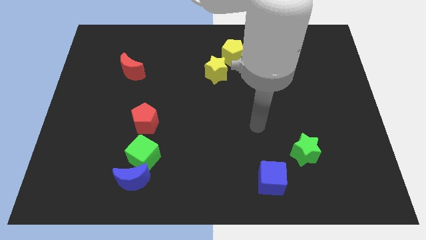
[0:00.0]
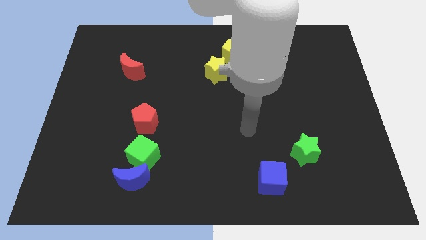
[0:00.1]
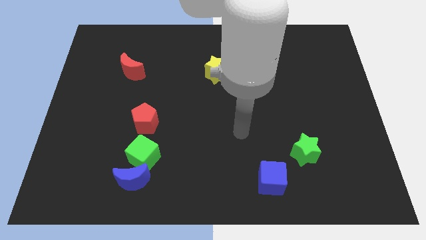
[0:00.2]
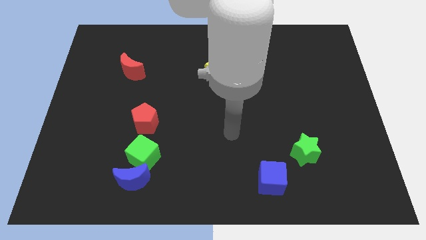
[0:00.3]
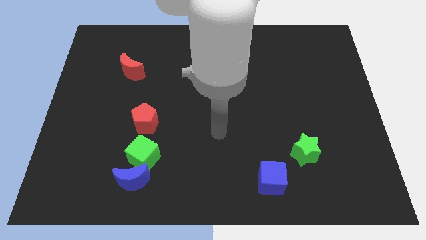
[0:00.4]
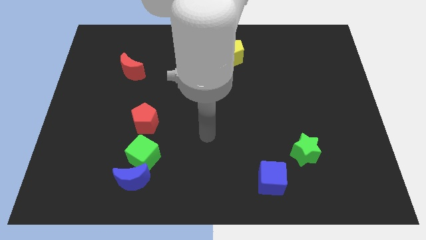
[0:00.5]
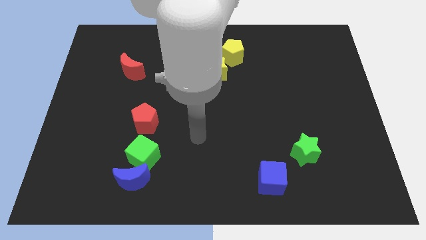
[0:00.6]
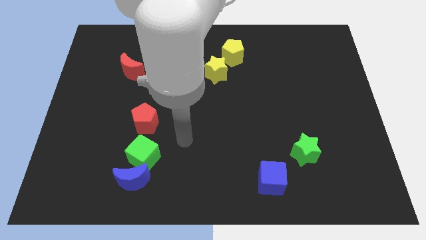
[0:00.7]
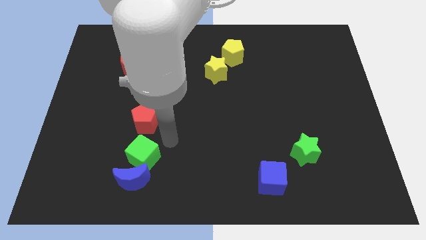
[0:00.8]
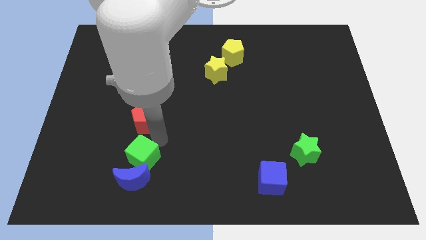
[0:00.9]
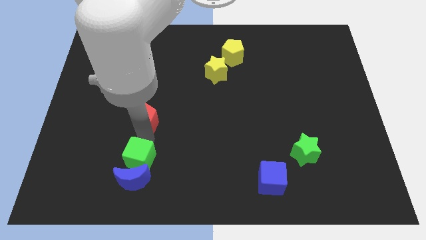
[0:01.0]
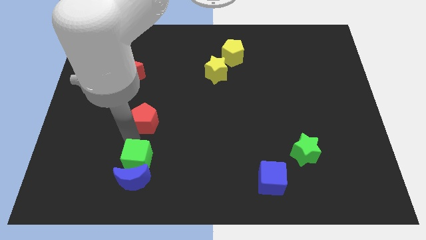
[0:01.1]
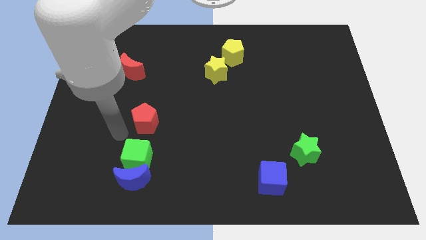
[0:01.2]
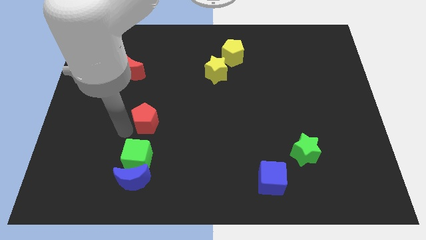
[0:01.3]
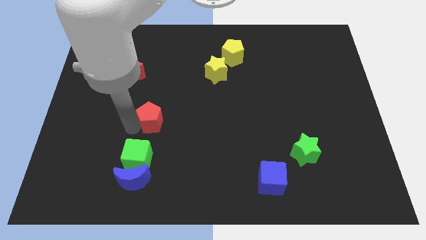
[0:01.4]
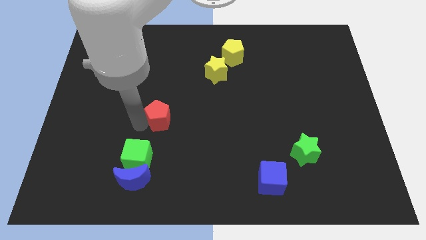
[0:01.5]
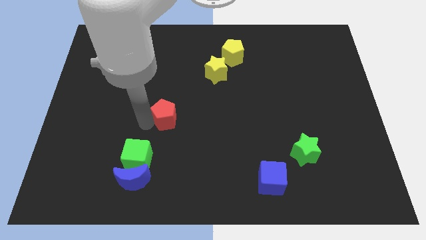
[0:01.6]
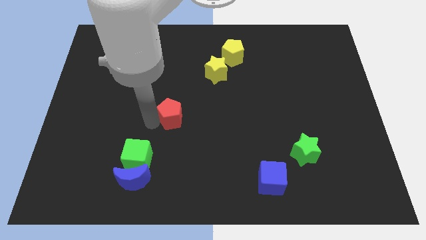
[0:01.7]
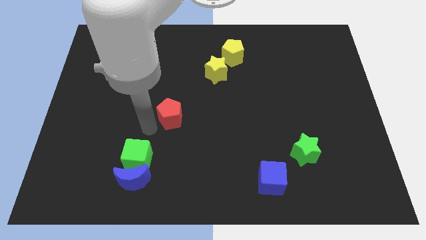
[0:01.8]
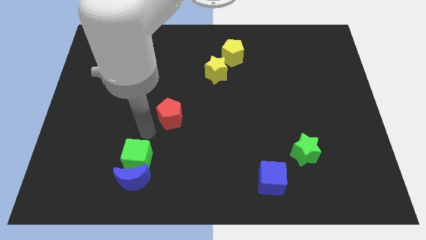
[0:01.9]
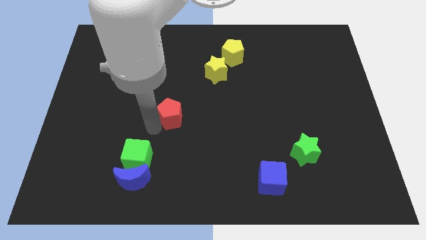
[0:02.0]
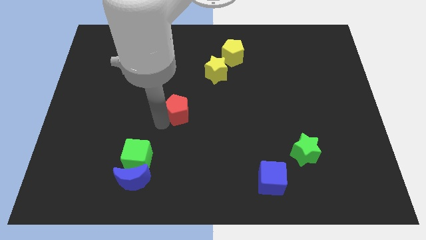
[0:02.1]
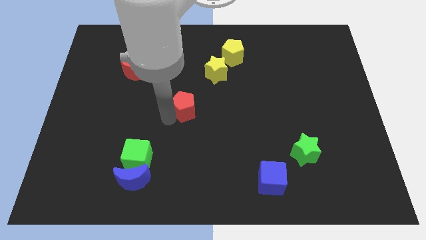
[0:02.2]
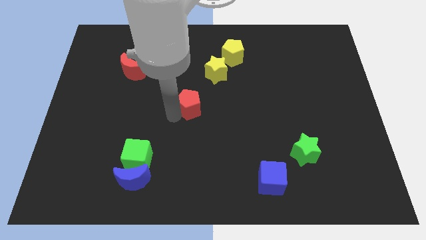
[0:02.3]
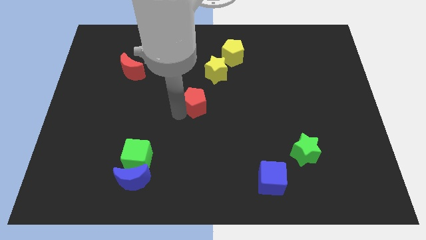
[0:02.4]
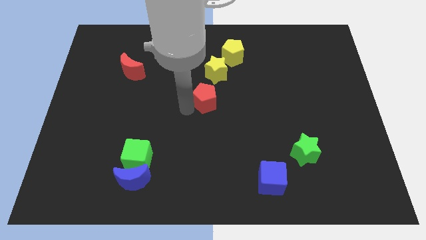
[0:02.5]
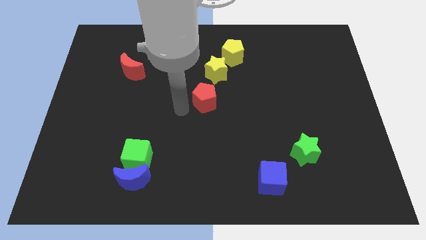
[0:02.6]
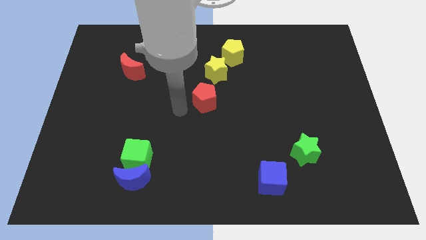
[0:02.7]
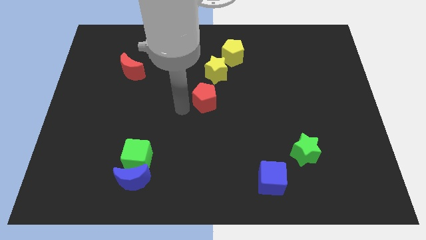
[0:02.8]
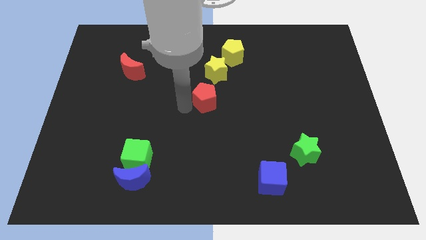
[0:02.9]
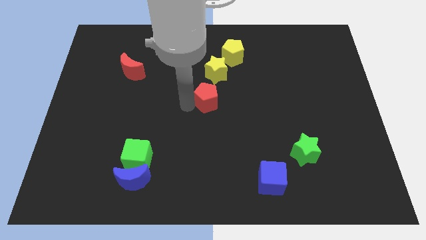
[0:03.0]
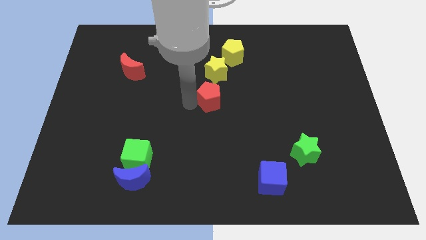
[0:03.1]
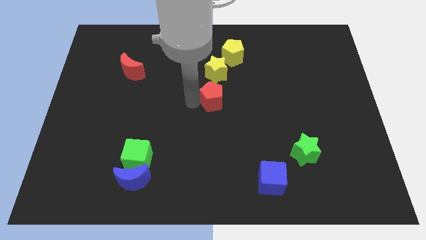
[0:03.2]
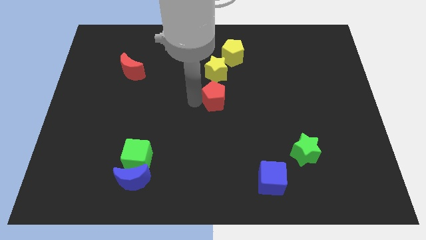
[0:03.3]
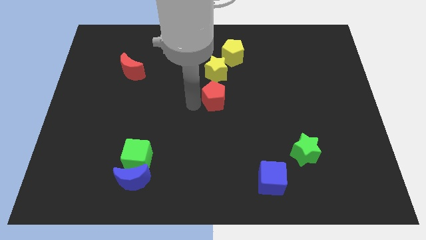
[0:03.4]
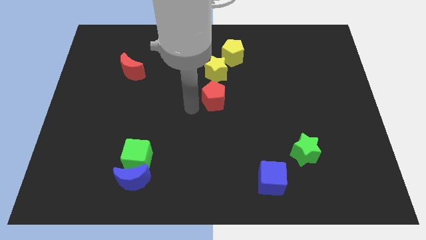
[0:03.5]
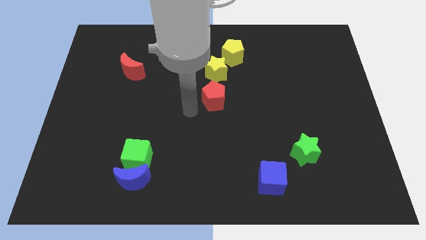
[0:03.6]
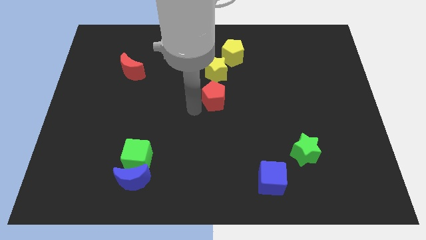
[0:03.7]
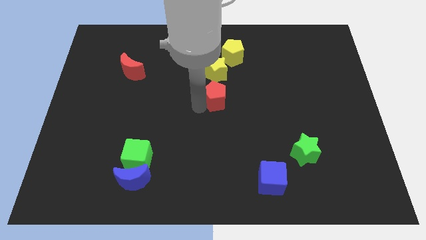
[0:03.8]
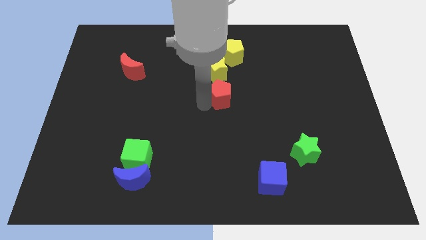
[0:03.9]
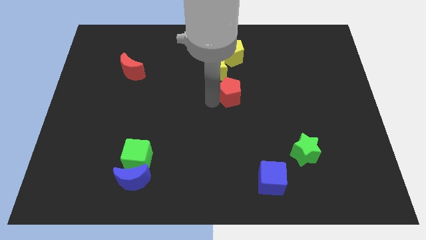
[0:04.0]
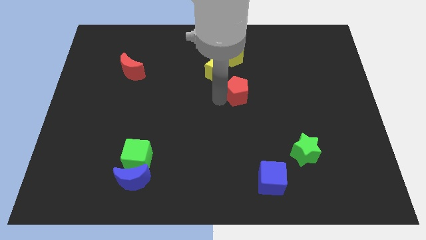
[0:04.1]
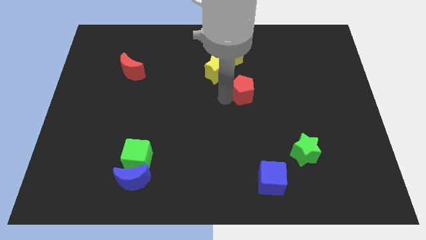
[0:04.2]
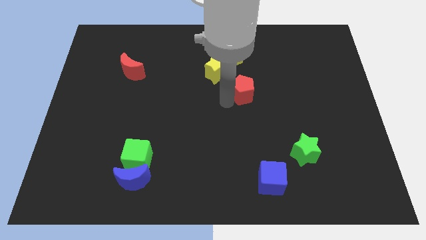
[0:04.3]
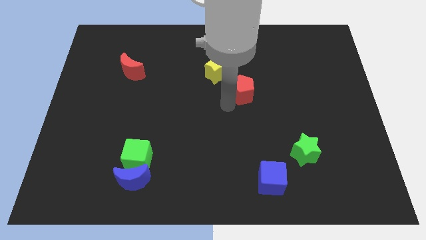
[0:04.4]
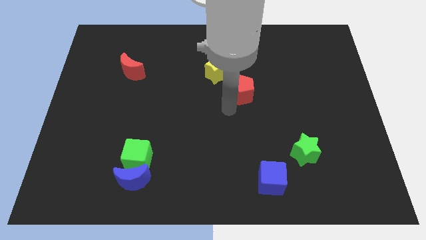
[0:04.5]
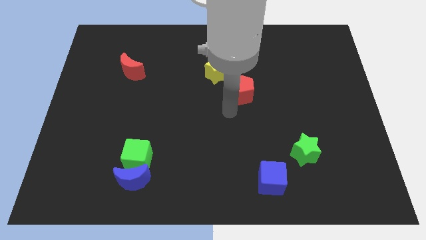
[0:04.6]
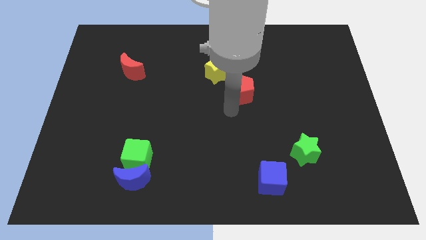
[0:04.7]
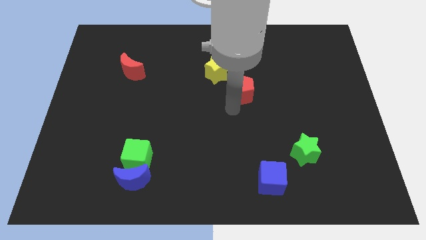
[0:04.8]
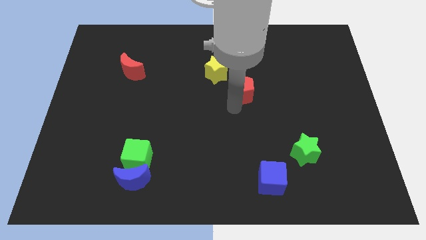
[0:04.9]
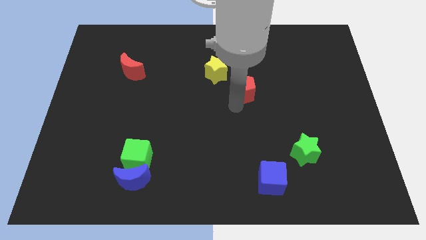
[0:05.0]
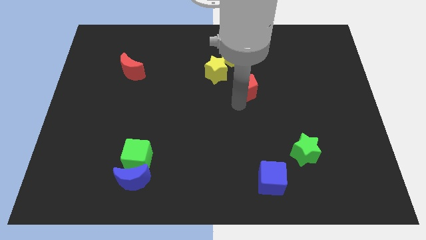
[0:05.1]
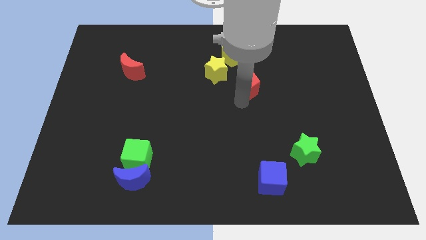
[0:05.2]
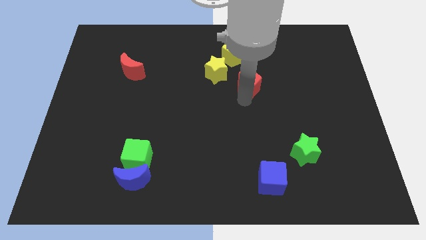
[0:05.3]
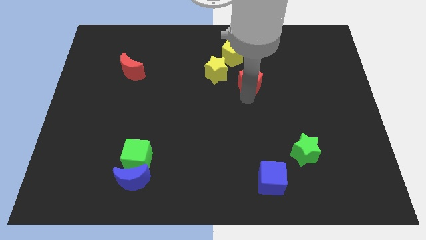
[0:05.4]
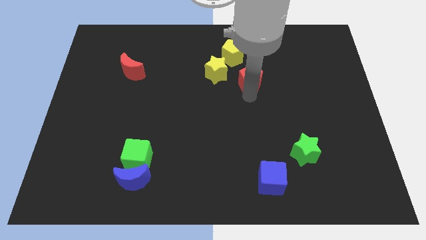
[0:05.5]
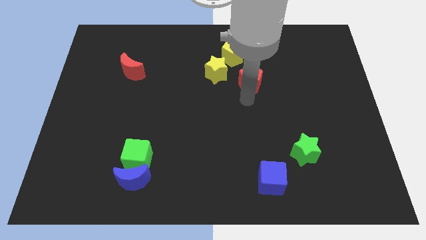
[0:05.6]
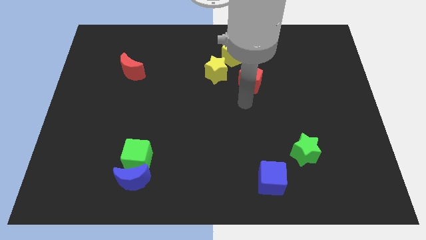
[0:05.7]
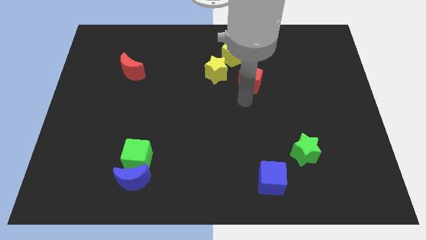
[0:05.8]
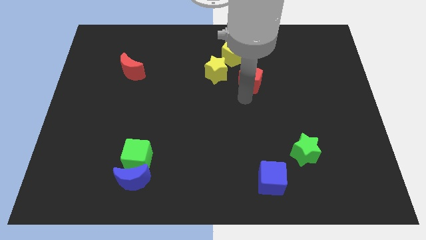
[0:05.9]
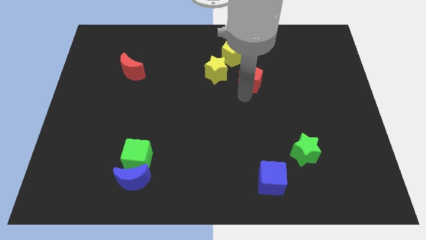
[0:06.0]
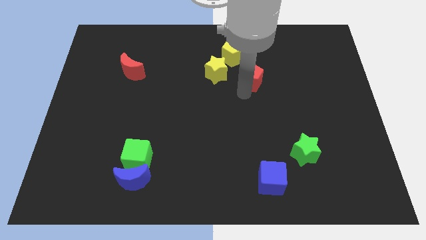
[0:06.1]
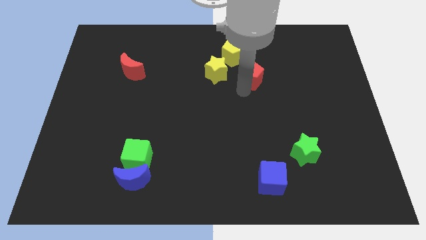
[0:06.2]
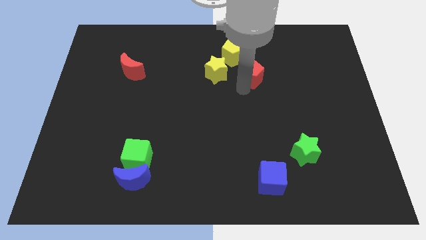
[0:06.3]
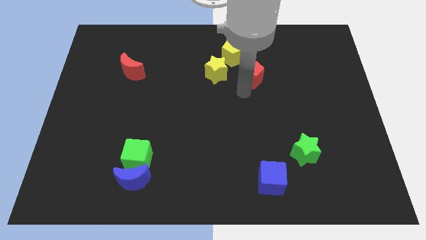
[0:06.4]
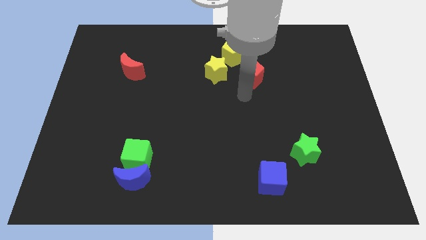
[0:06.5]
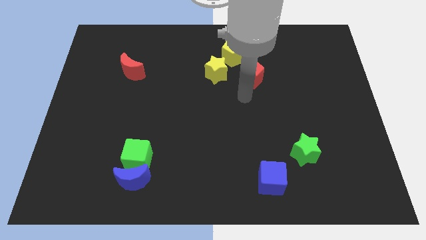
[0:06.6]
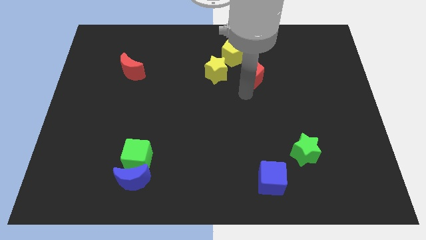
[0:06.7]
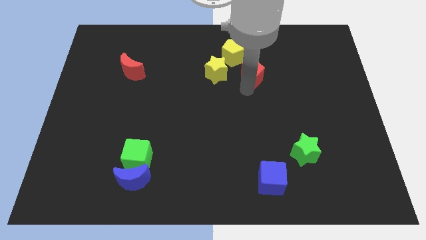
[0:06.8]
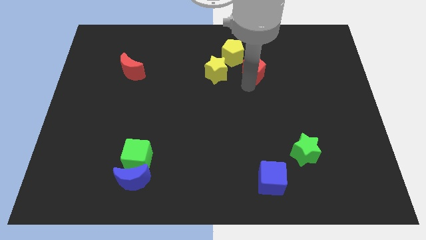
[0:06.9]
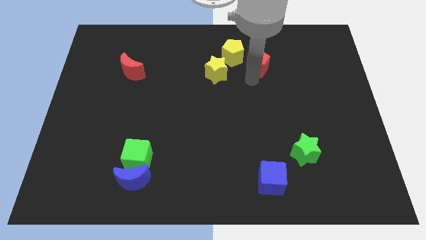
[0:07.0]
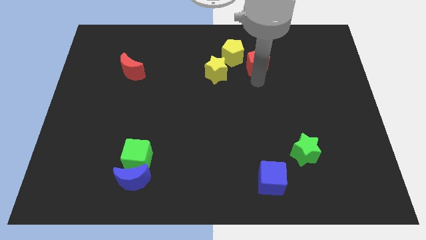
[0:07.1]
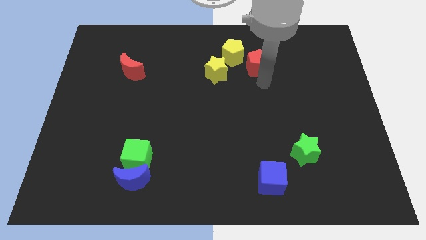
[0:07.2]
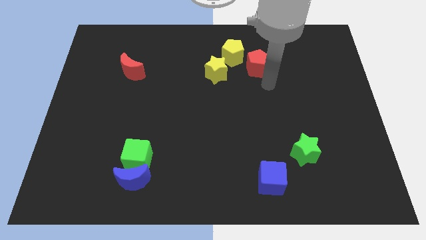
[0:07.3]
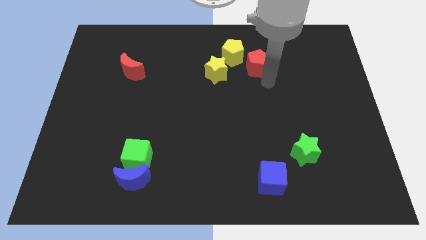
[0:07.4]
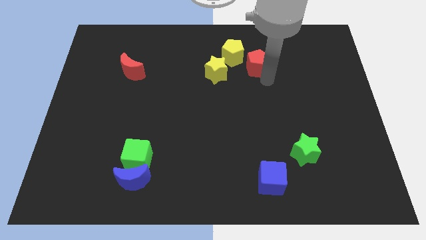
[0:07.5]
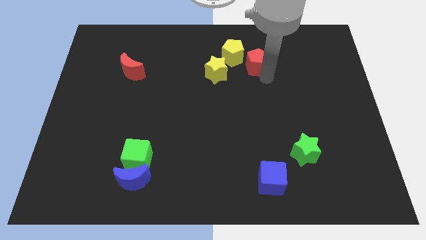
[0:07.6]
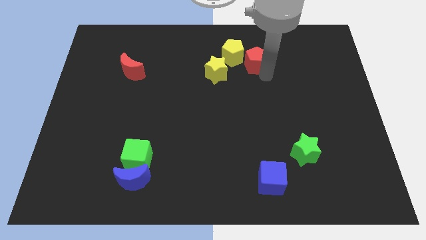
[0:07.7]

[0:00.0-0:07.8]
push the red pentagon diagonally up and to the right of the yellow star
